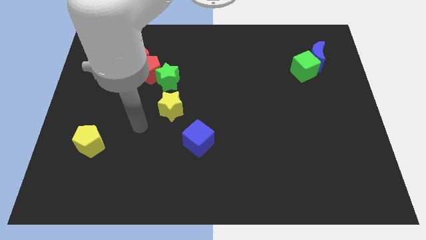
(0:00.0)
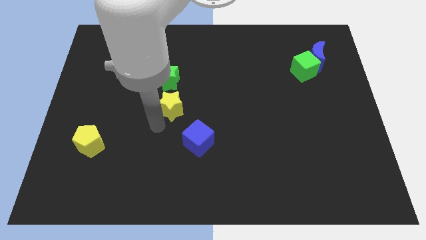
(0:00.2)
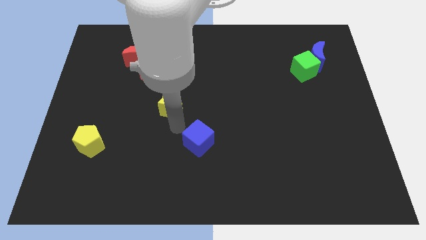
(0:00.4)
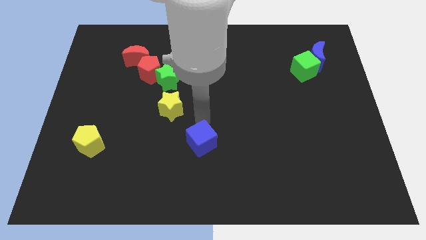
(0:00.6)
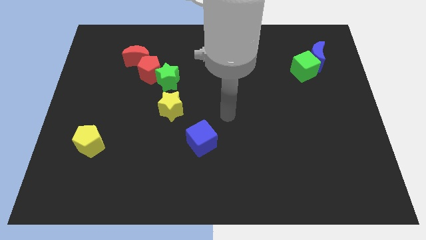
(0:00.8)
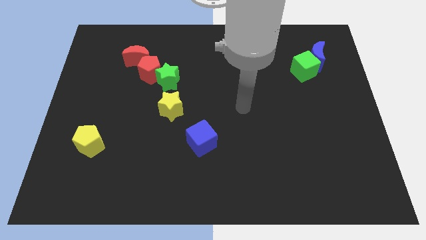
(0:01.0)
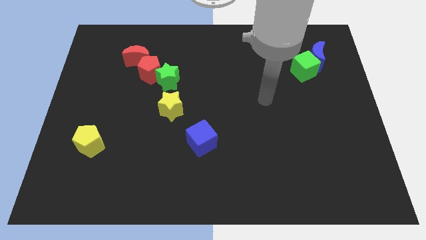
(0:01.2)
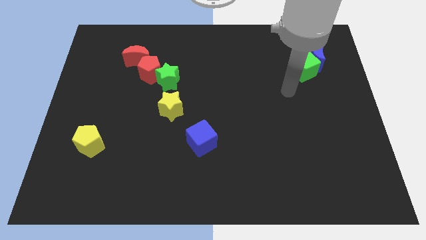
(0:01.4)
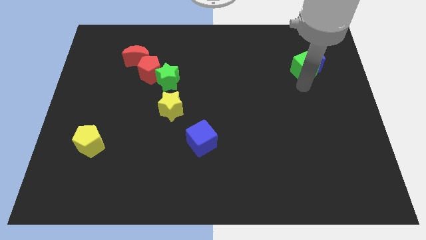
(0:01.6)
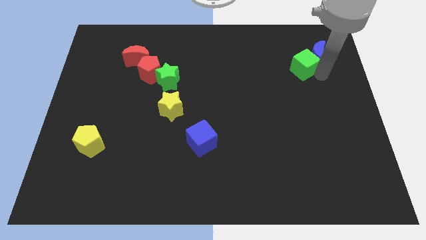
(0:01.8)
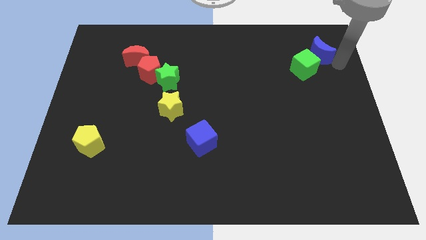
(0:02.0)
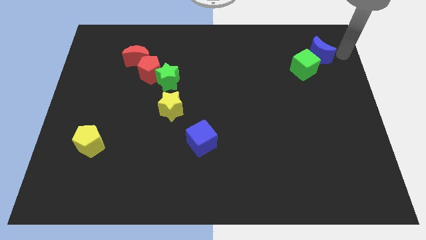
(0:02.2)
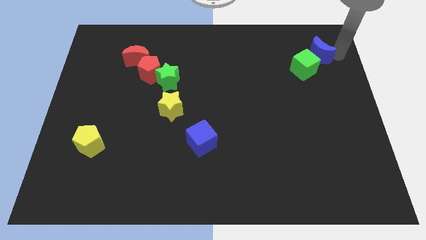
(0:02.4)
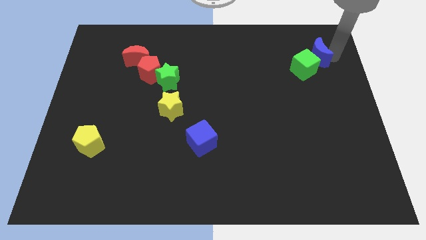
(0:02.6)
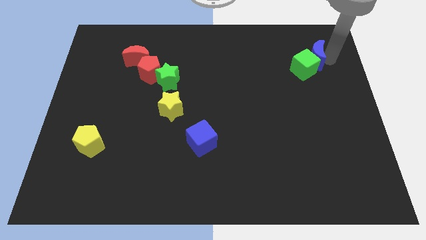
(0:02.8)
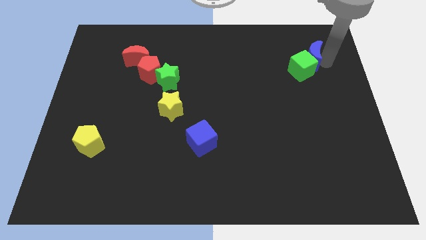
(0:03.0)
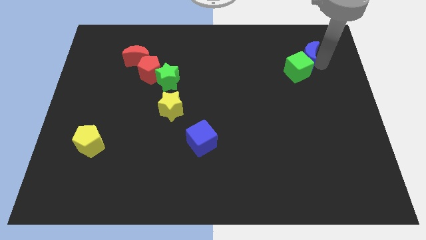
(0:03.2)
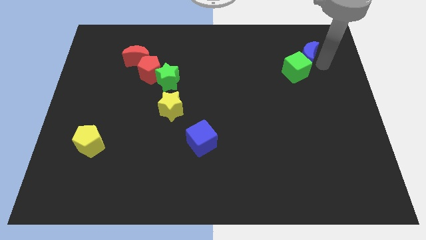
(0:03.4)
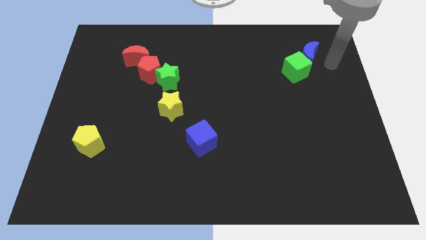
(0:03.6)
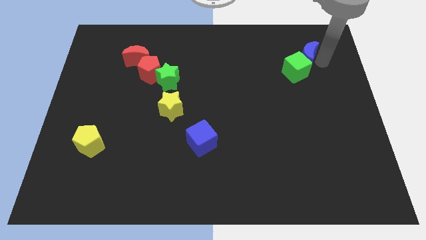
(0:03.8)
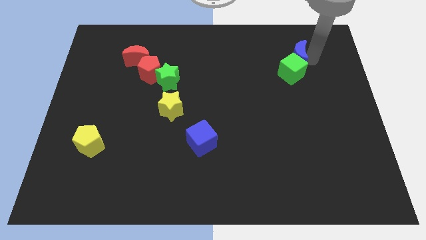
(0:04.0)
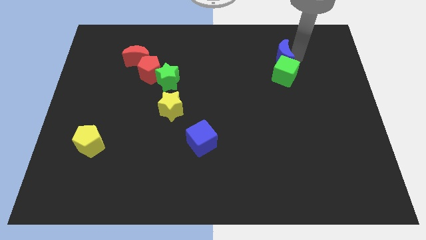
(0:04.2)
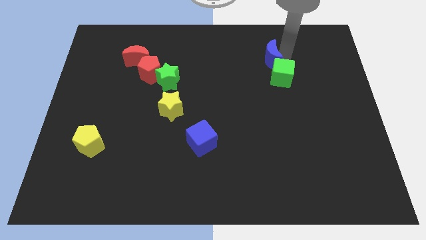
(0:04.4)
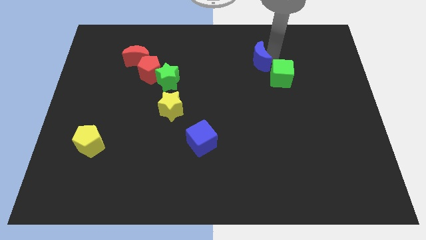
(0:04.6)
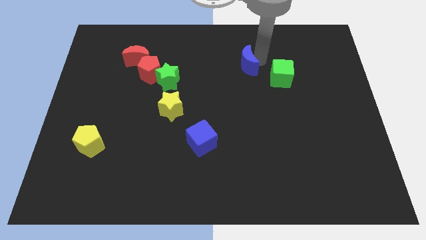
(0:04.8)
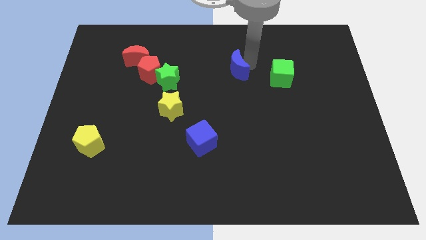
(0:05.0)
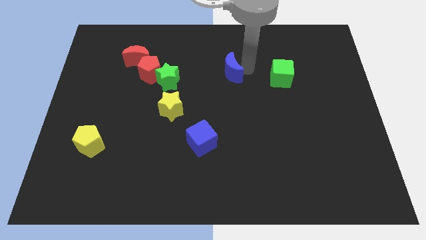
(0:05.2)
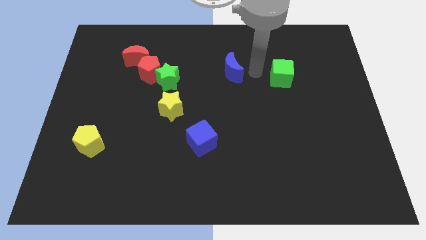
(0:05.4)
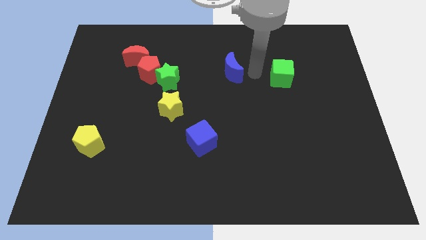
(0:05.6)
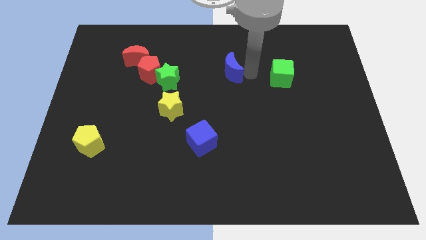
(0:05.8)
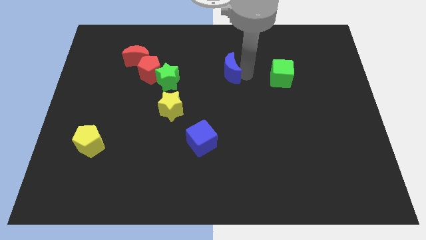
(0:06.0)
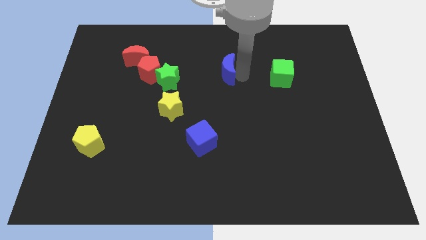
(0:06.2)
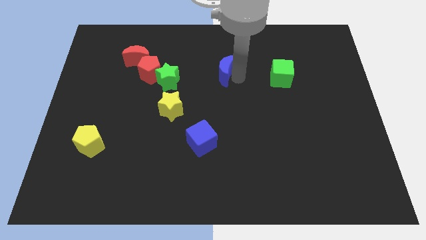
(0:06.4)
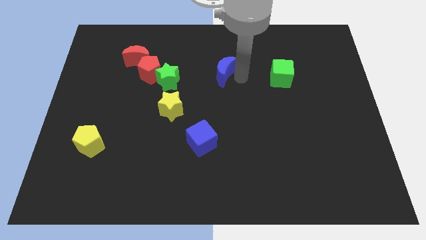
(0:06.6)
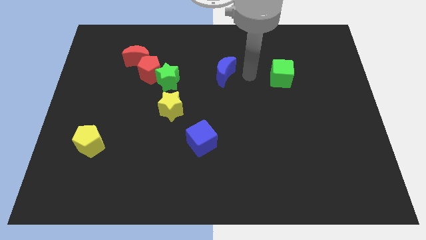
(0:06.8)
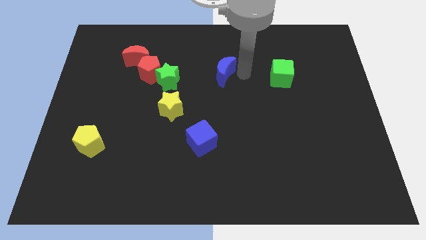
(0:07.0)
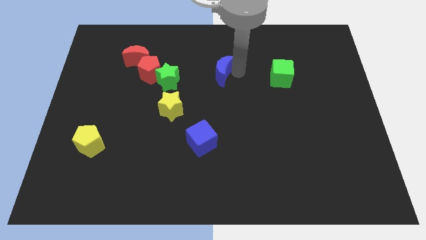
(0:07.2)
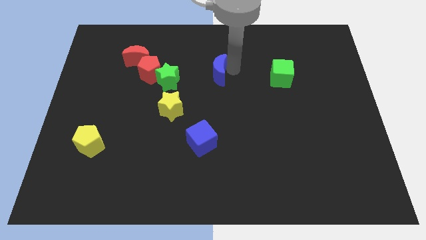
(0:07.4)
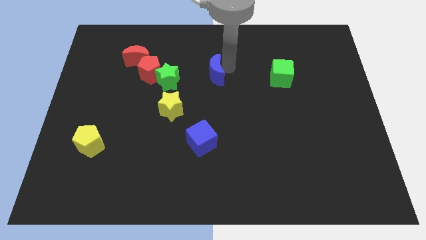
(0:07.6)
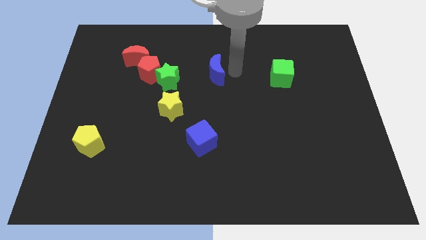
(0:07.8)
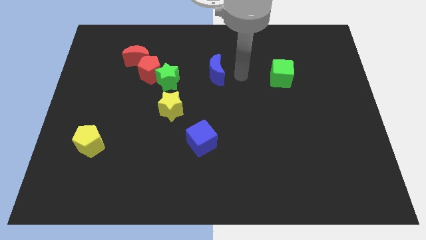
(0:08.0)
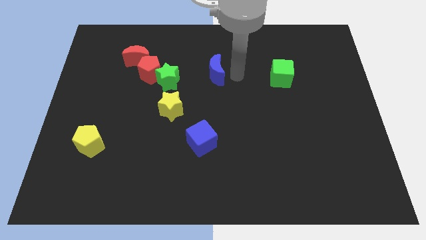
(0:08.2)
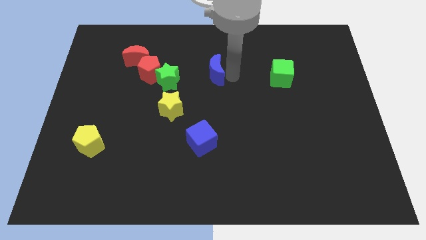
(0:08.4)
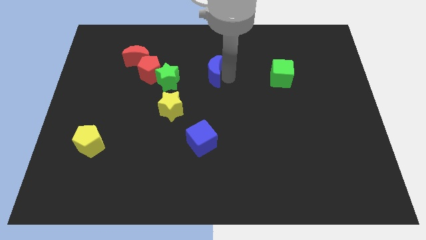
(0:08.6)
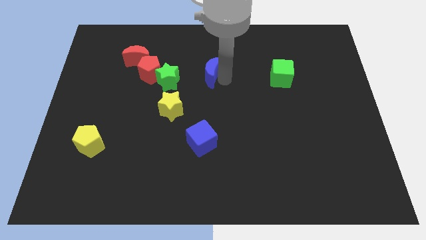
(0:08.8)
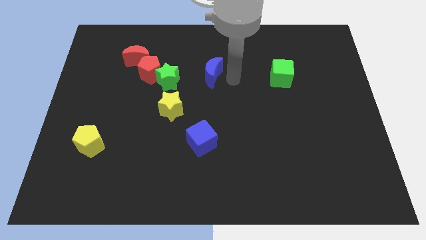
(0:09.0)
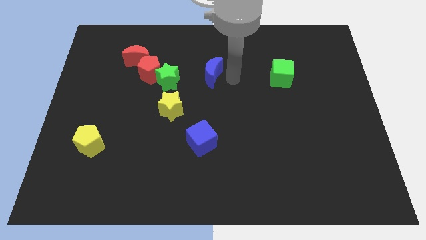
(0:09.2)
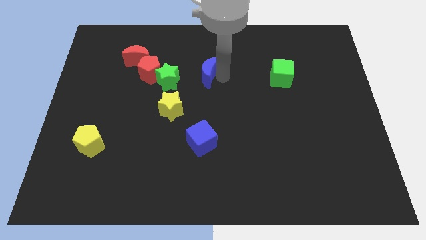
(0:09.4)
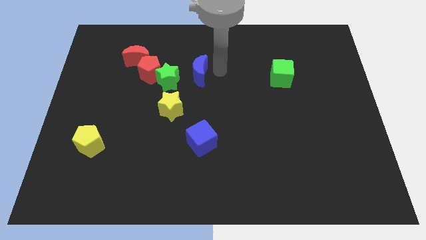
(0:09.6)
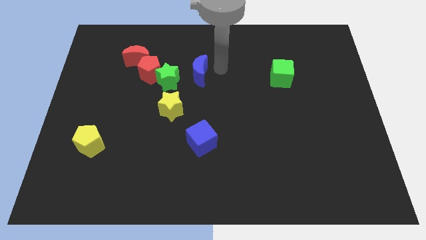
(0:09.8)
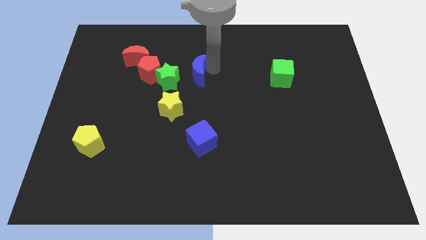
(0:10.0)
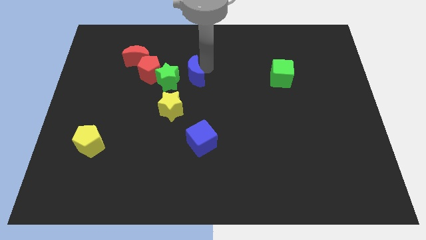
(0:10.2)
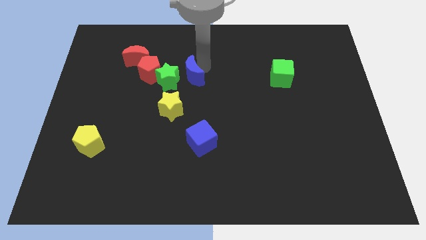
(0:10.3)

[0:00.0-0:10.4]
move the blue moon close to the green star

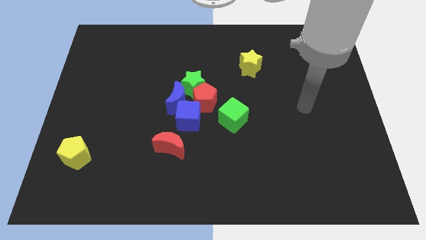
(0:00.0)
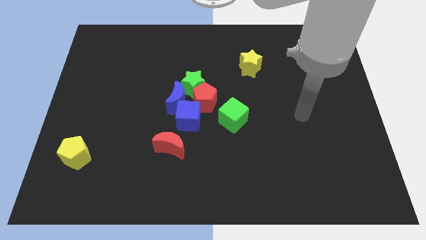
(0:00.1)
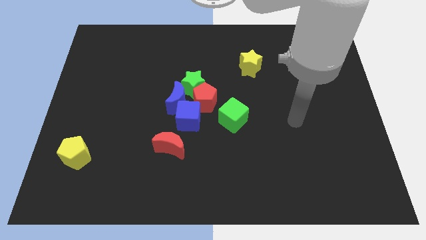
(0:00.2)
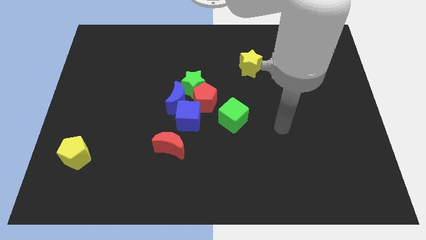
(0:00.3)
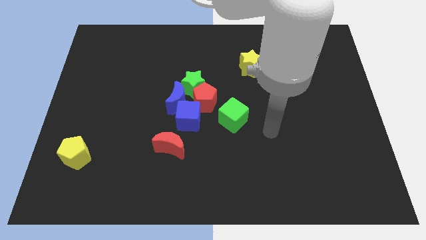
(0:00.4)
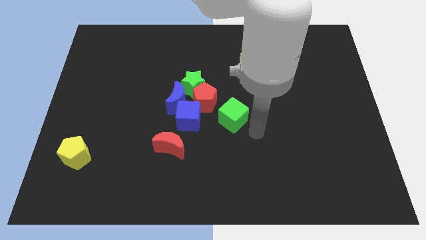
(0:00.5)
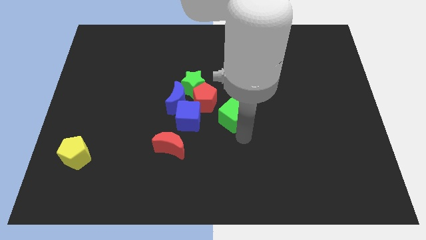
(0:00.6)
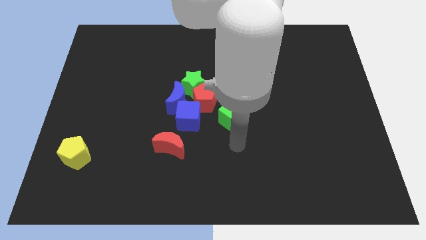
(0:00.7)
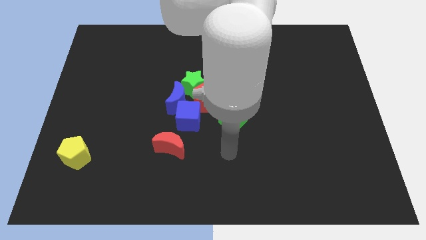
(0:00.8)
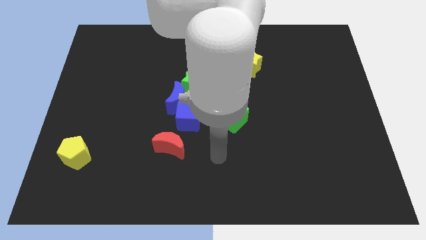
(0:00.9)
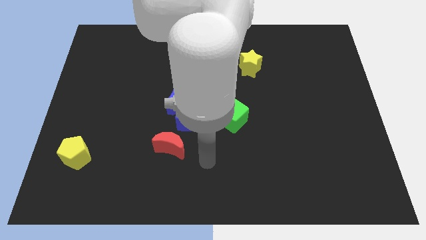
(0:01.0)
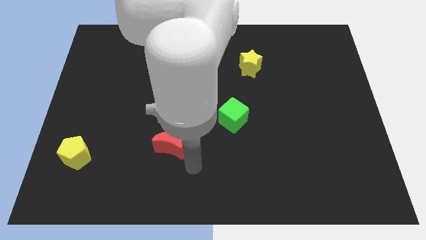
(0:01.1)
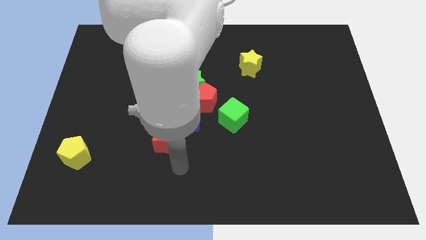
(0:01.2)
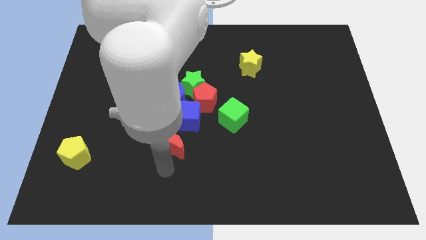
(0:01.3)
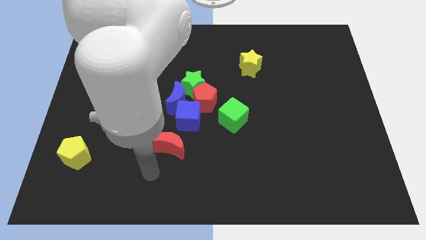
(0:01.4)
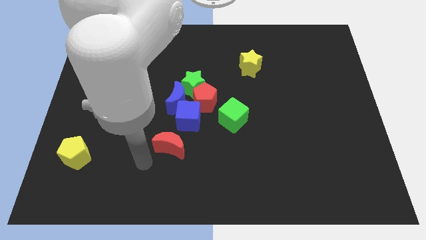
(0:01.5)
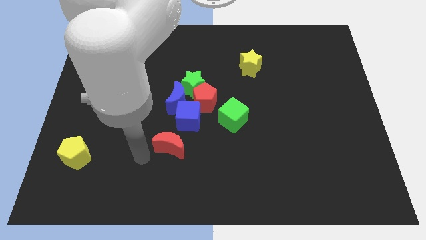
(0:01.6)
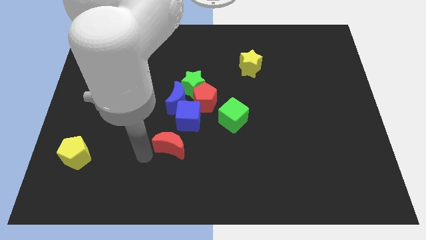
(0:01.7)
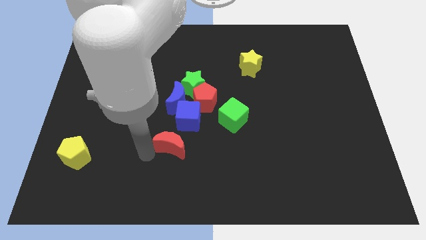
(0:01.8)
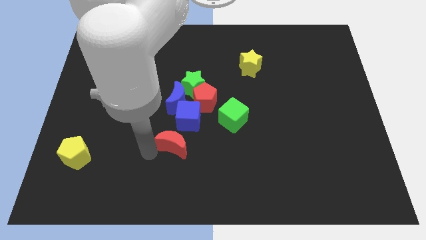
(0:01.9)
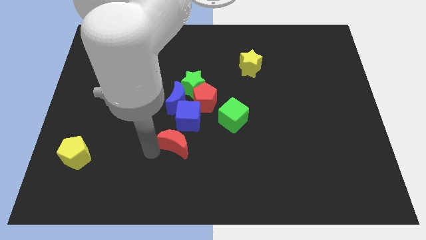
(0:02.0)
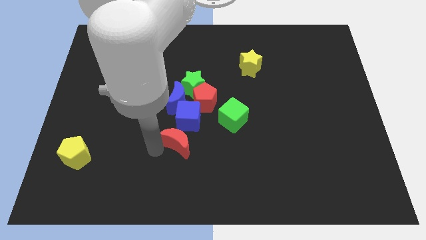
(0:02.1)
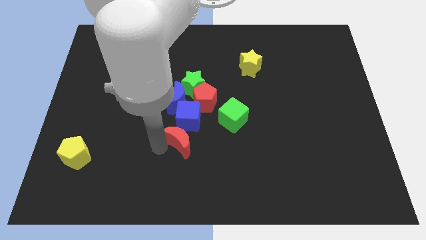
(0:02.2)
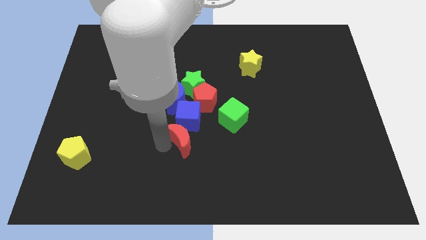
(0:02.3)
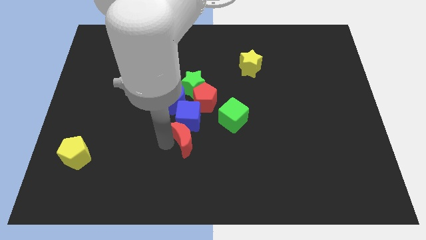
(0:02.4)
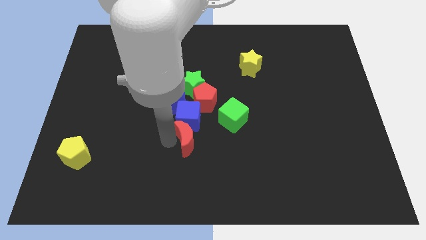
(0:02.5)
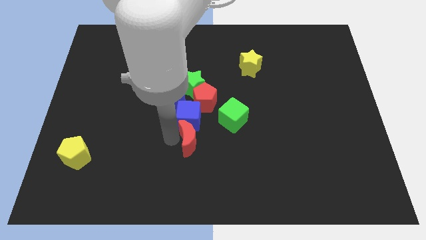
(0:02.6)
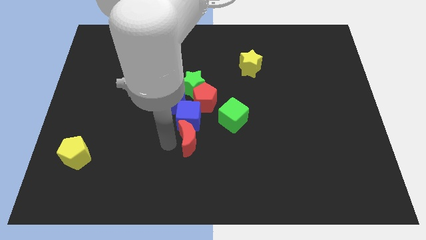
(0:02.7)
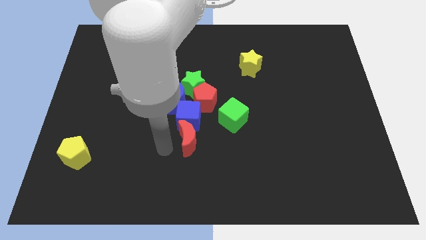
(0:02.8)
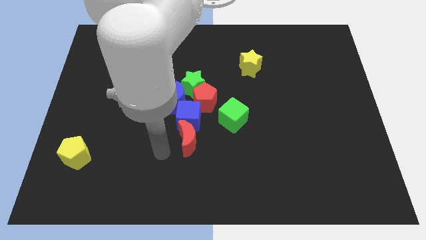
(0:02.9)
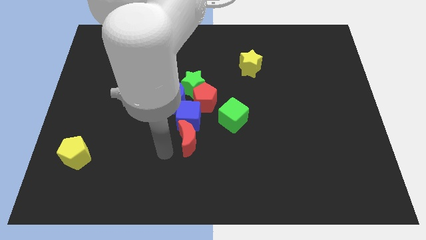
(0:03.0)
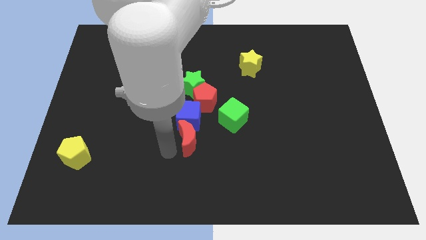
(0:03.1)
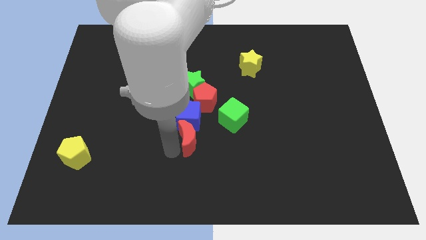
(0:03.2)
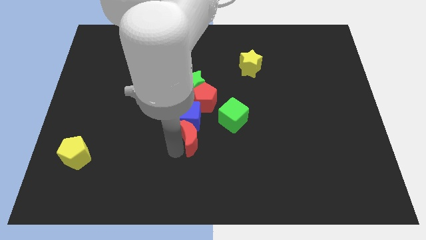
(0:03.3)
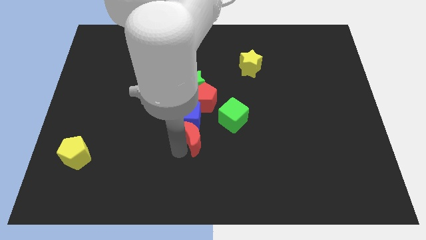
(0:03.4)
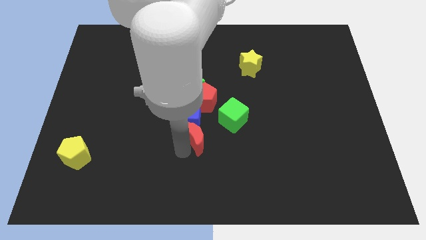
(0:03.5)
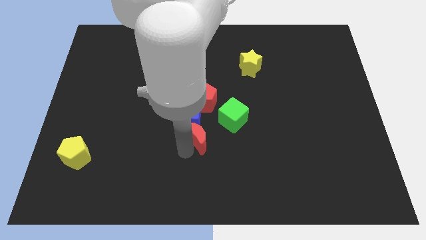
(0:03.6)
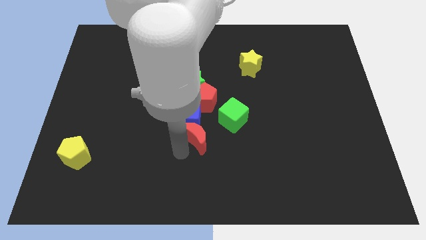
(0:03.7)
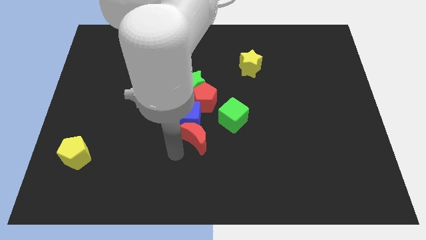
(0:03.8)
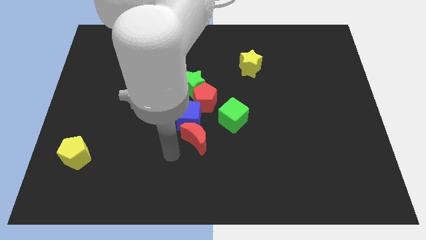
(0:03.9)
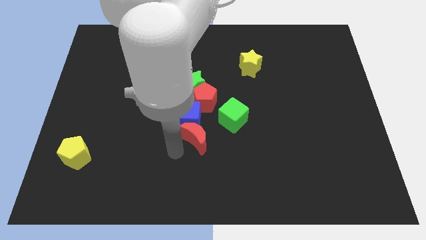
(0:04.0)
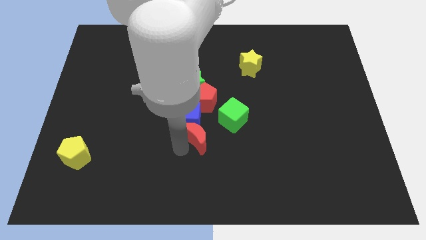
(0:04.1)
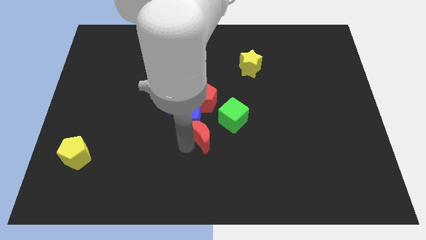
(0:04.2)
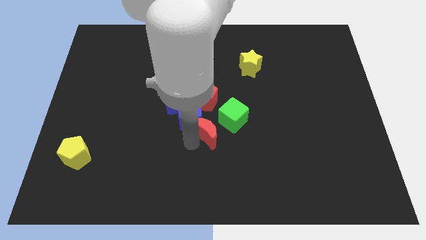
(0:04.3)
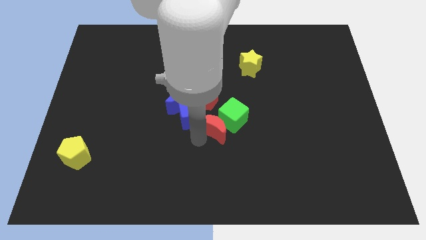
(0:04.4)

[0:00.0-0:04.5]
move the red moon to the green cube
